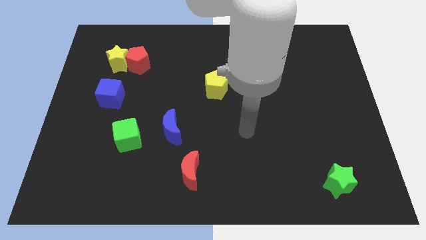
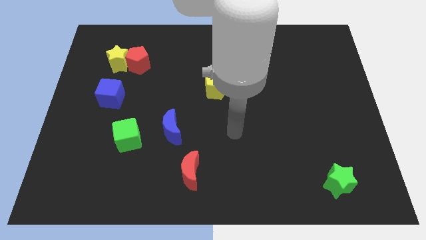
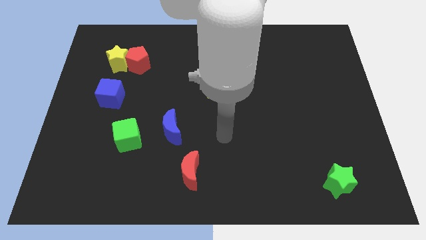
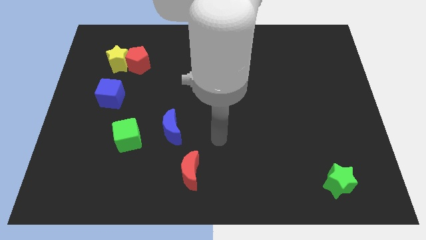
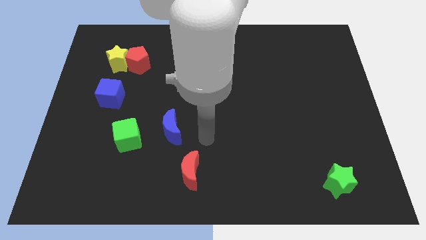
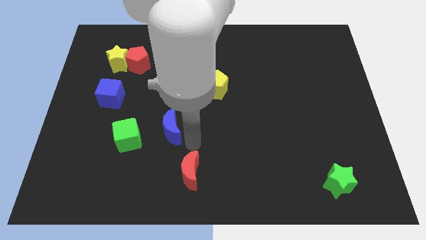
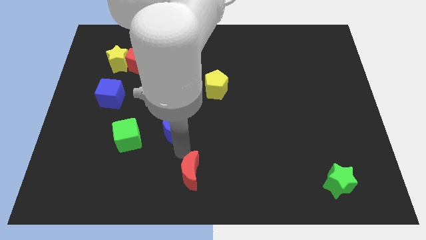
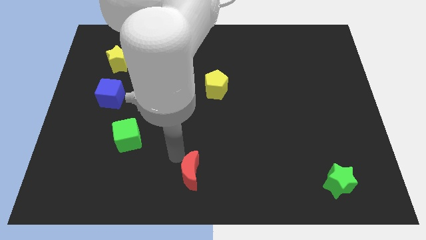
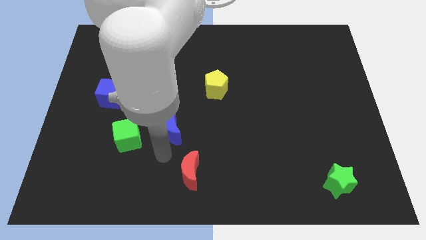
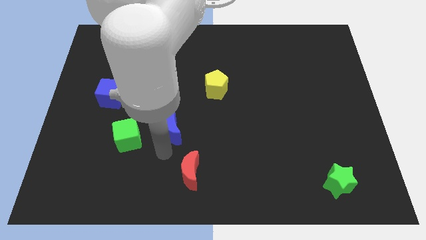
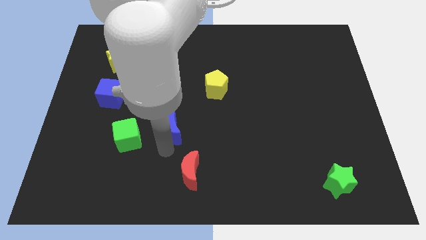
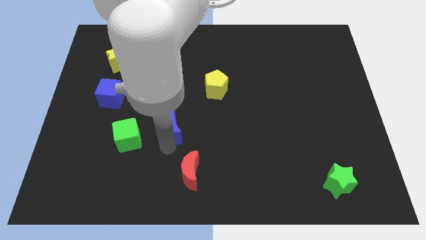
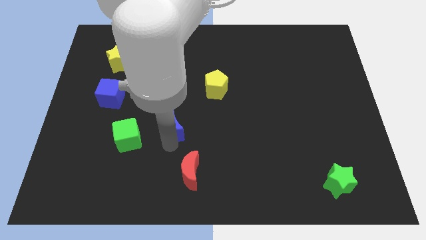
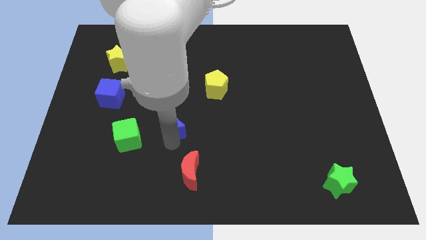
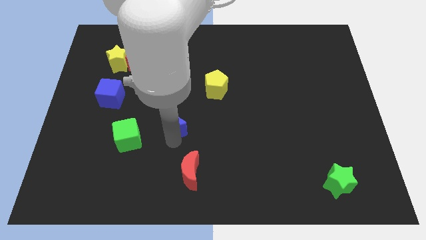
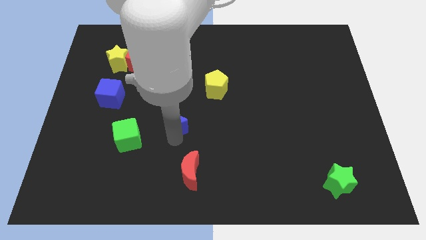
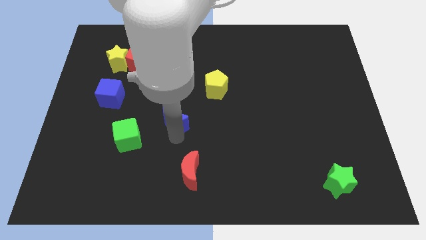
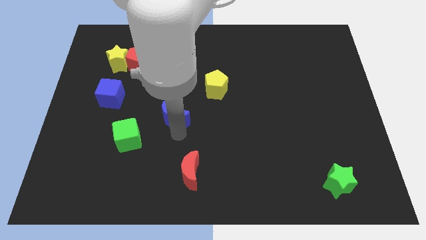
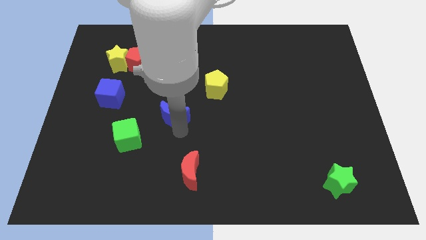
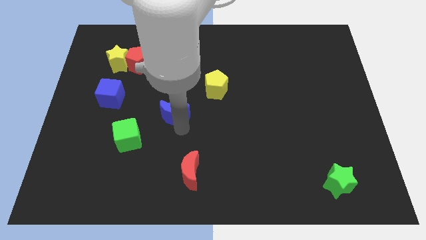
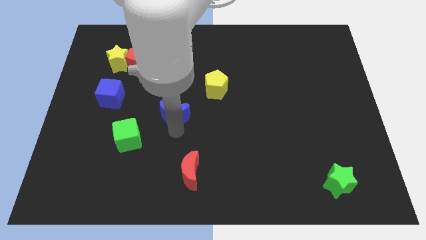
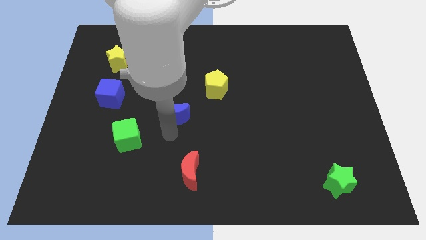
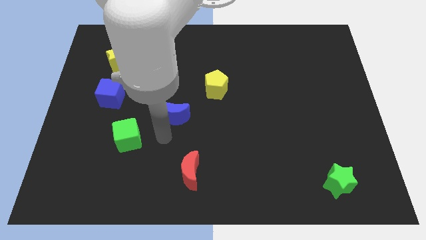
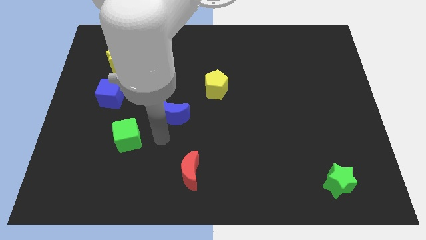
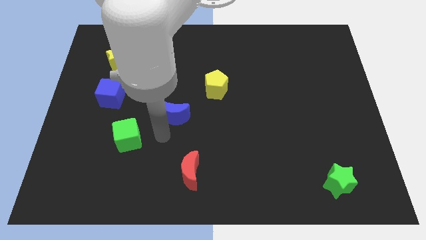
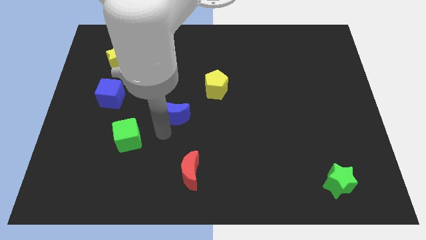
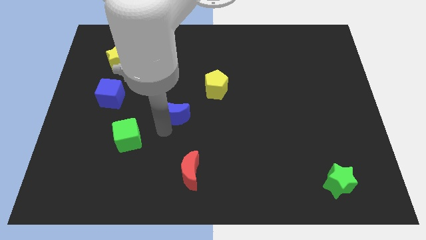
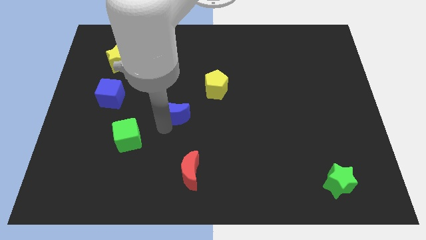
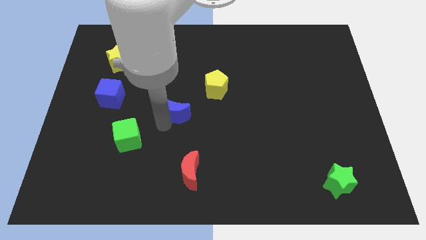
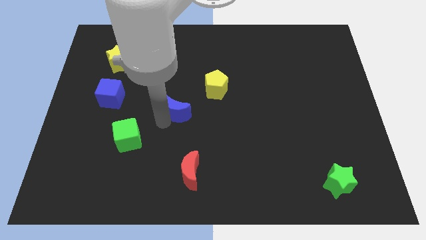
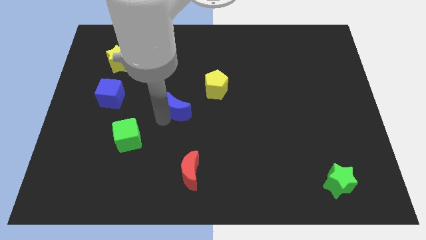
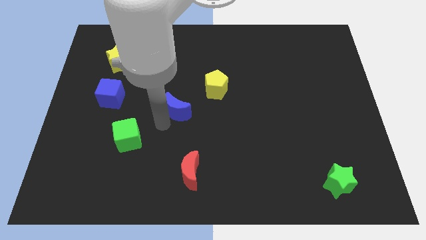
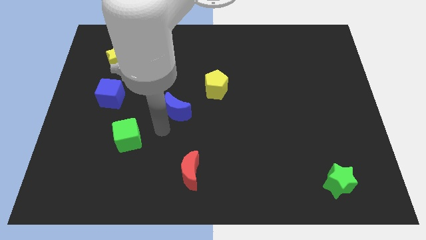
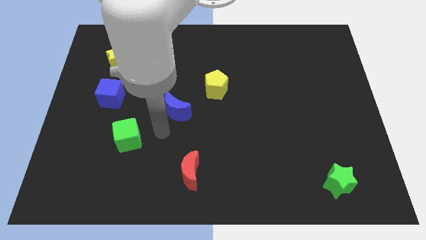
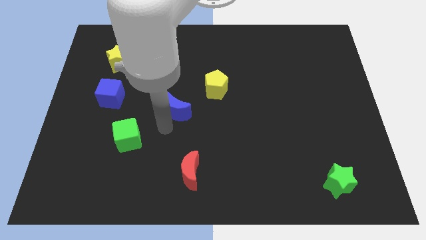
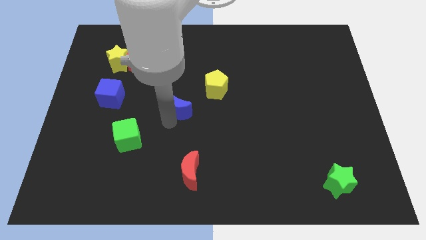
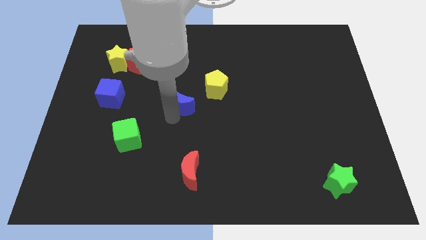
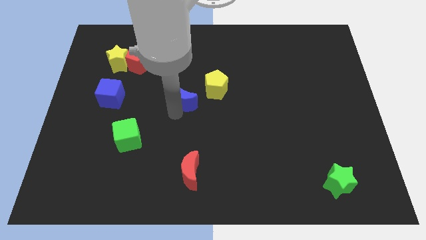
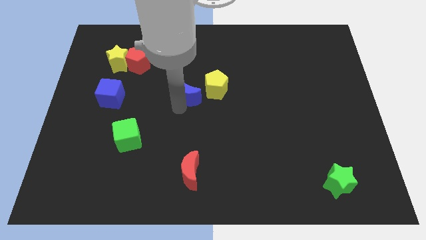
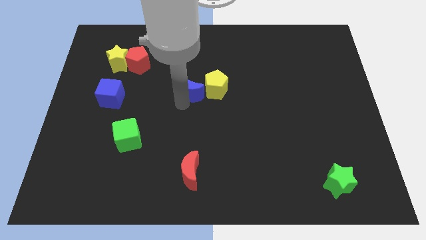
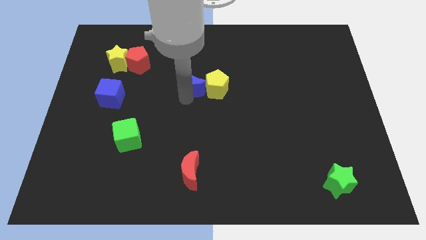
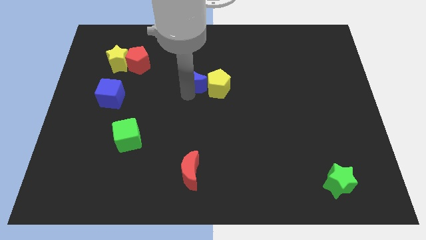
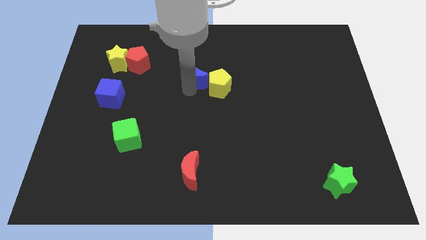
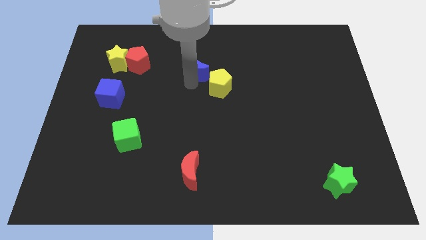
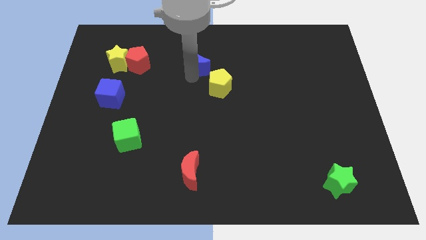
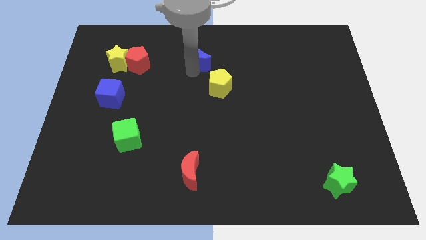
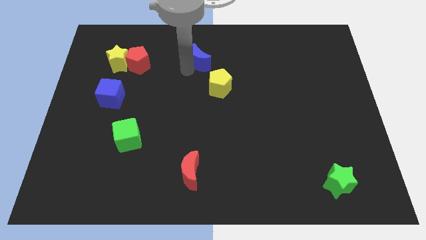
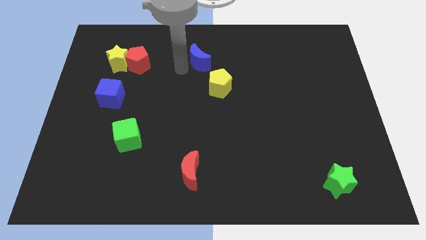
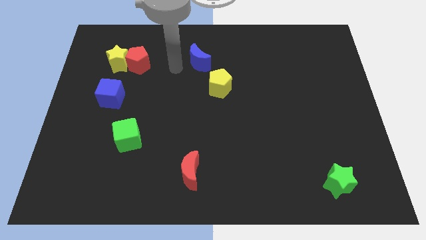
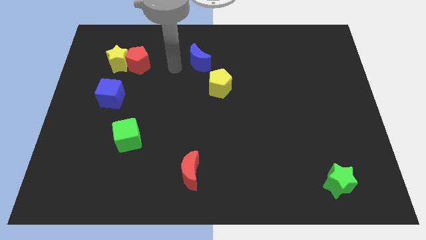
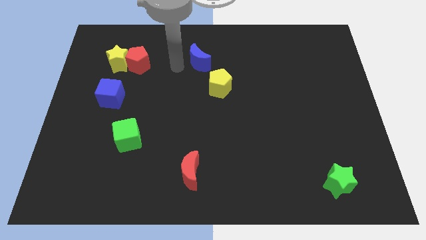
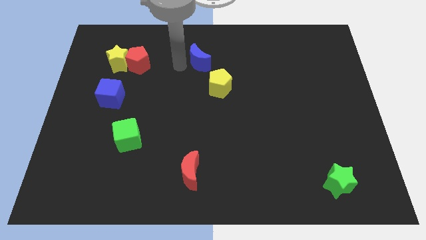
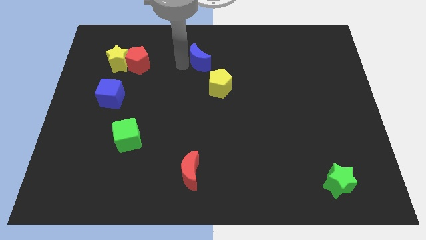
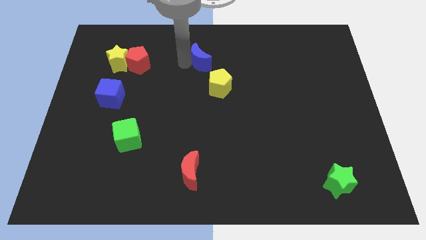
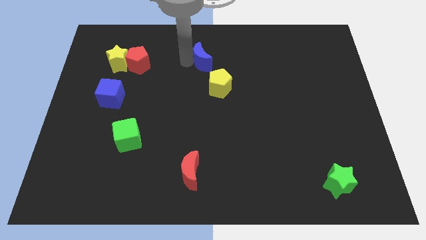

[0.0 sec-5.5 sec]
slide the blue moon to the top side of the yellow pentagon
